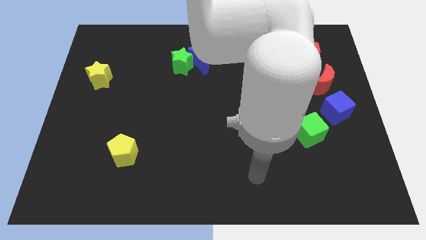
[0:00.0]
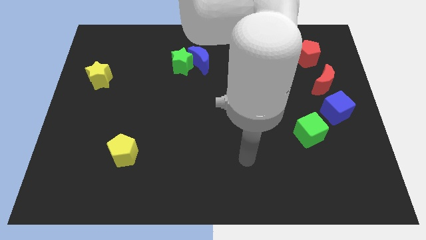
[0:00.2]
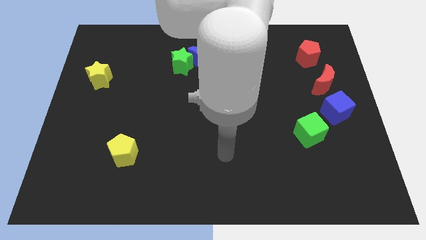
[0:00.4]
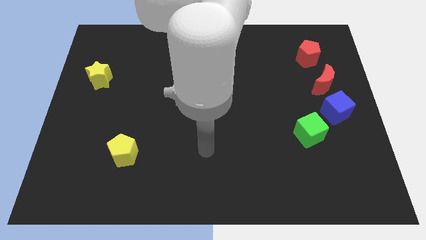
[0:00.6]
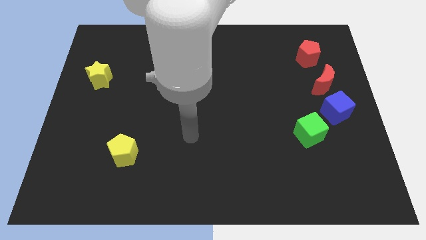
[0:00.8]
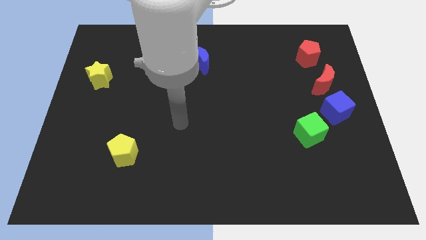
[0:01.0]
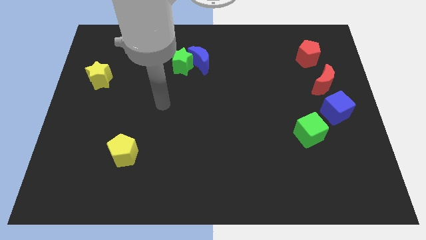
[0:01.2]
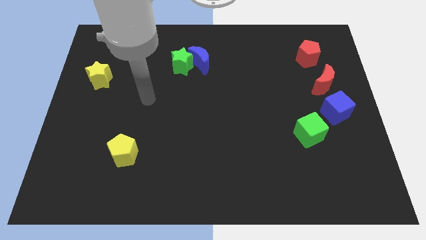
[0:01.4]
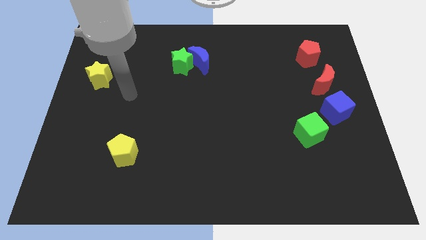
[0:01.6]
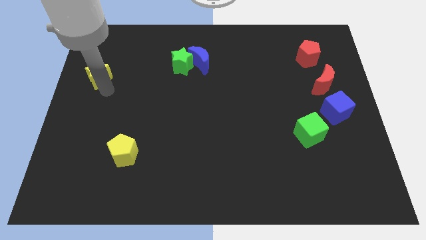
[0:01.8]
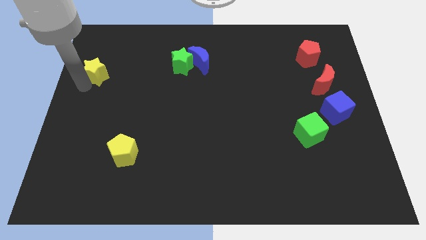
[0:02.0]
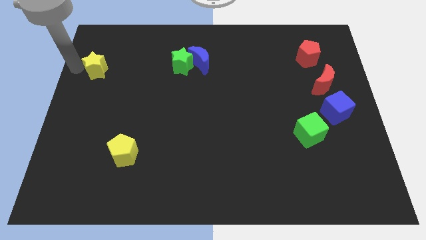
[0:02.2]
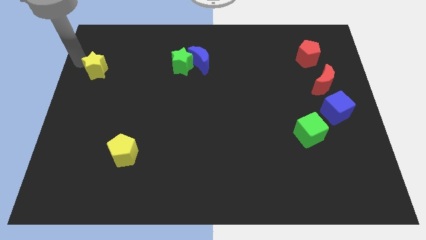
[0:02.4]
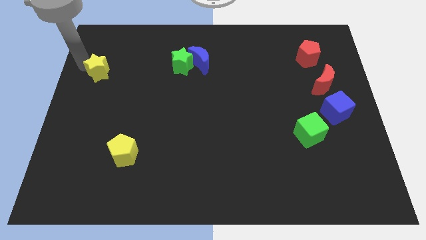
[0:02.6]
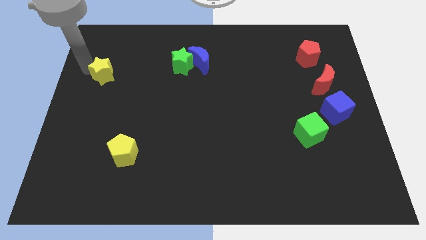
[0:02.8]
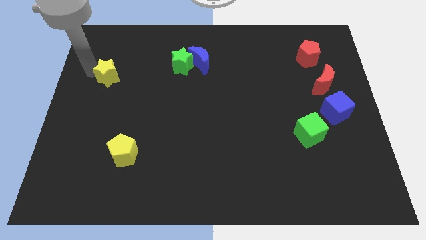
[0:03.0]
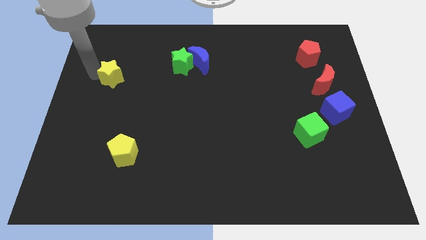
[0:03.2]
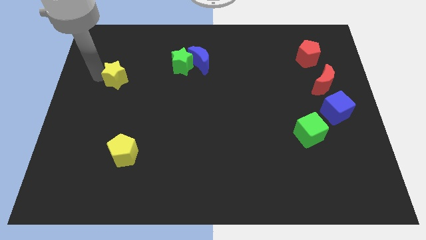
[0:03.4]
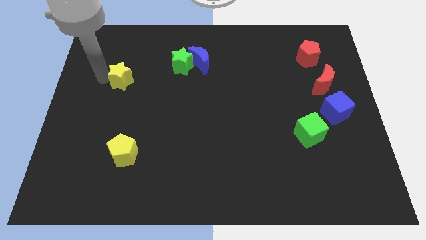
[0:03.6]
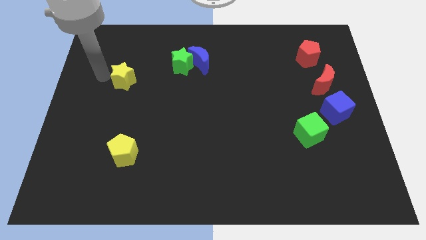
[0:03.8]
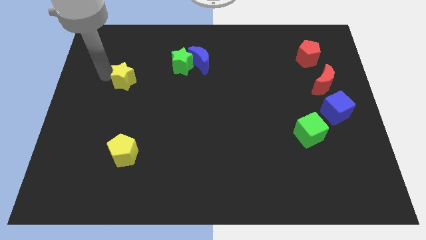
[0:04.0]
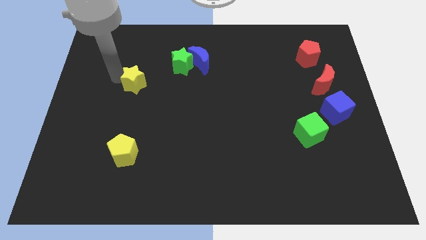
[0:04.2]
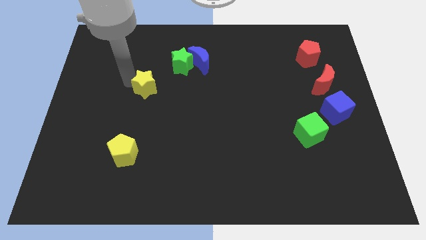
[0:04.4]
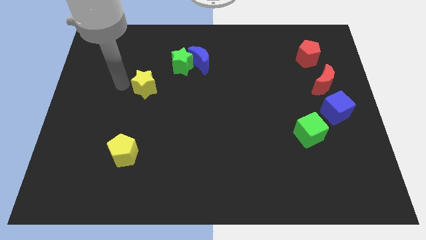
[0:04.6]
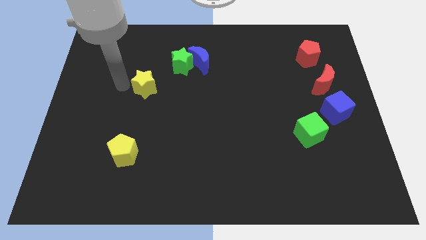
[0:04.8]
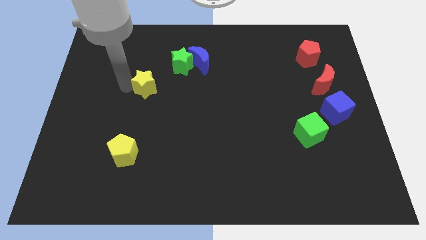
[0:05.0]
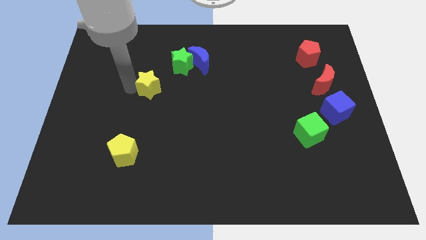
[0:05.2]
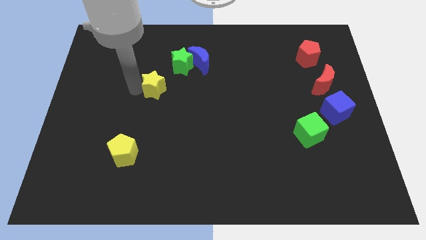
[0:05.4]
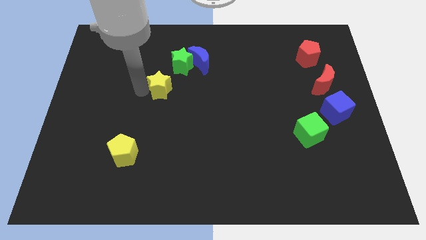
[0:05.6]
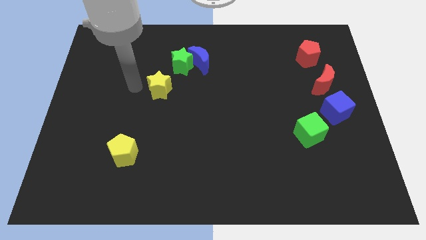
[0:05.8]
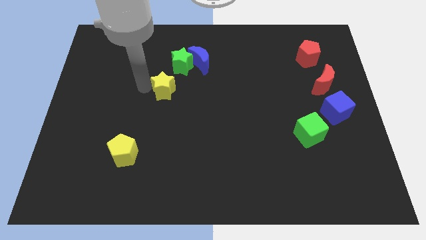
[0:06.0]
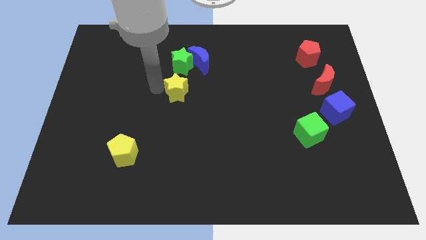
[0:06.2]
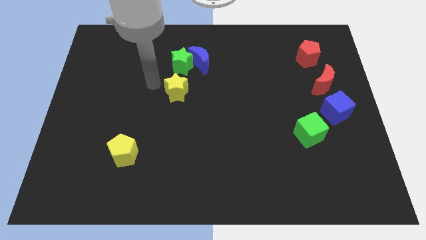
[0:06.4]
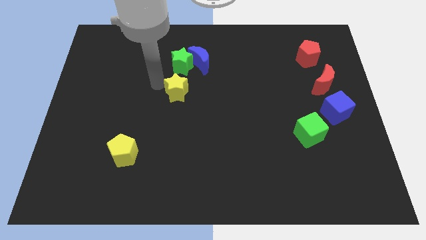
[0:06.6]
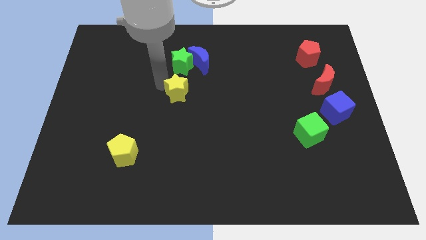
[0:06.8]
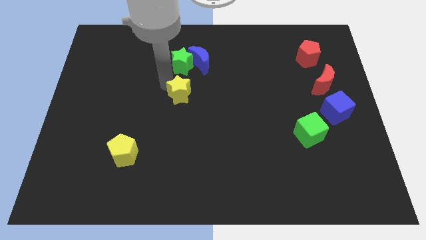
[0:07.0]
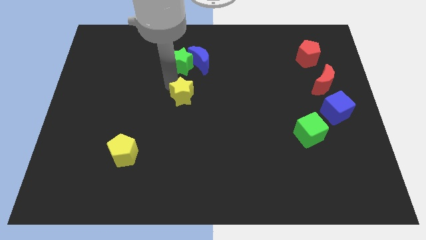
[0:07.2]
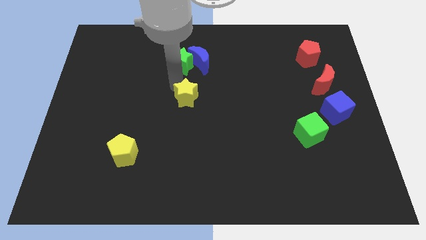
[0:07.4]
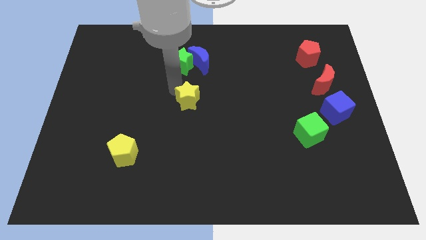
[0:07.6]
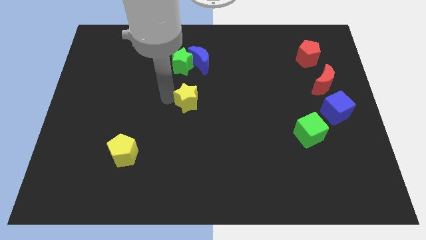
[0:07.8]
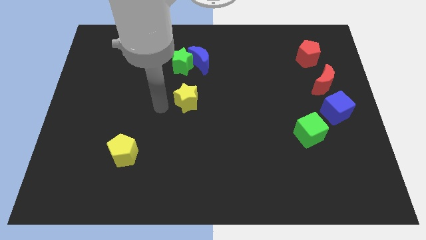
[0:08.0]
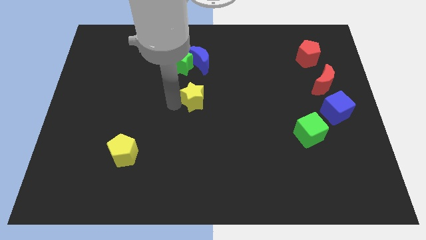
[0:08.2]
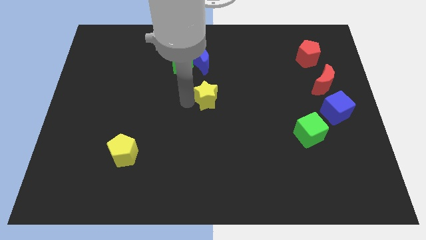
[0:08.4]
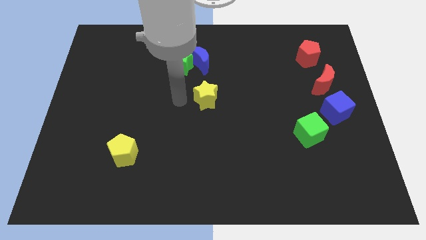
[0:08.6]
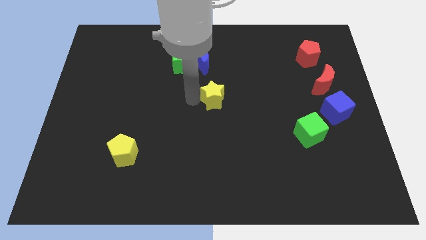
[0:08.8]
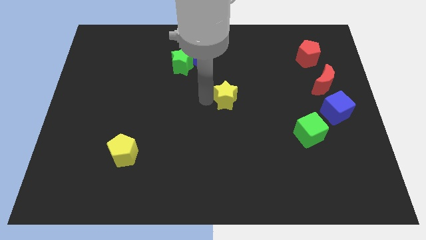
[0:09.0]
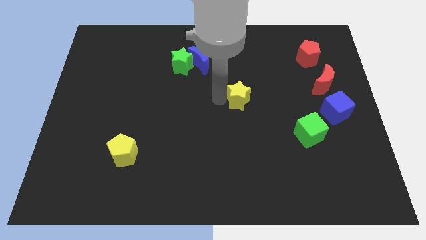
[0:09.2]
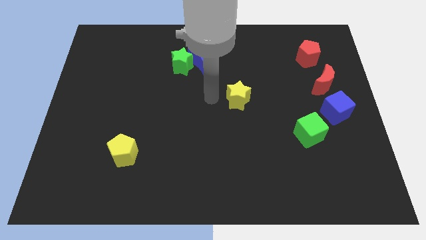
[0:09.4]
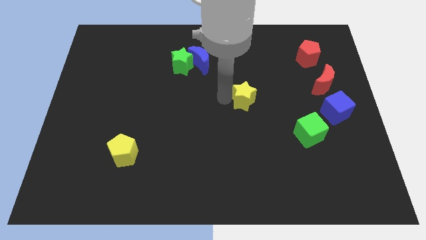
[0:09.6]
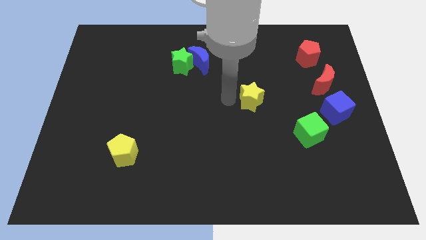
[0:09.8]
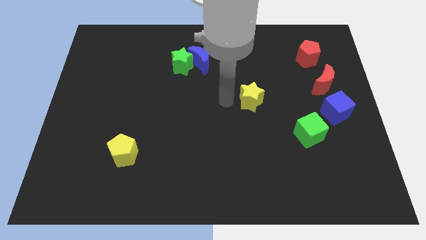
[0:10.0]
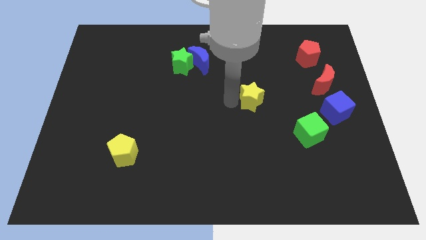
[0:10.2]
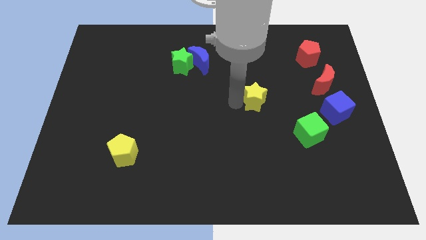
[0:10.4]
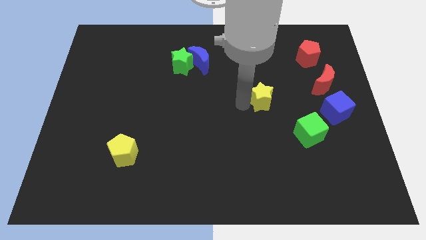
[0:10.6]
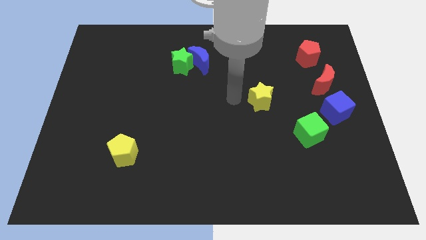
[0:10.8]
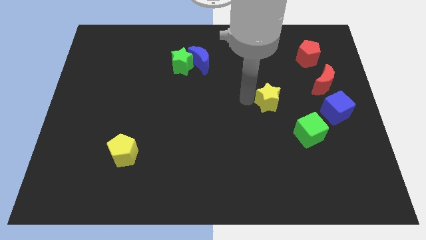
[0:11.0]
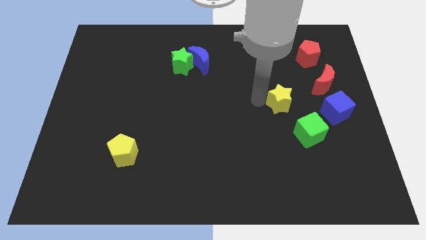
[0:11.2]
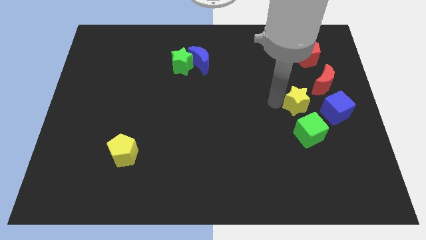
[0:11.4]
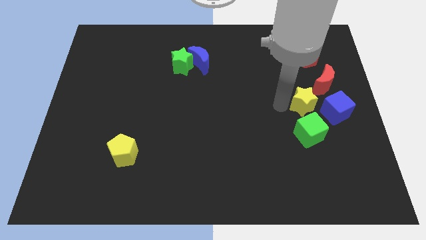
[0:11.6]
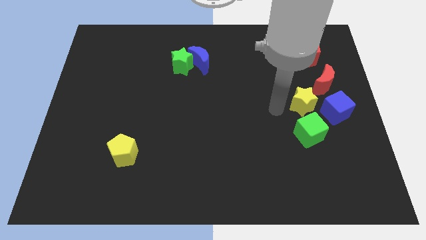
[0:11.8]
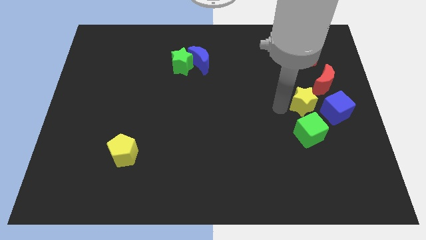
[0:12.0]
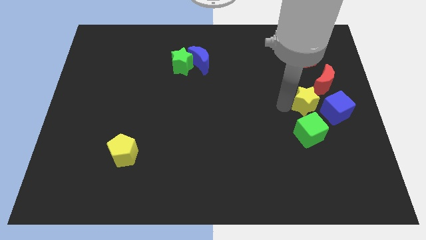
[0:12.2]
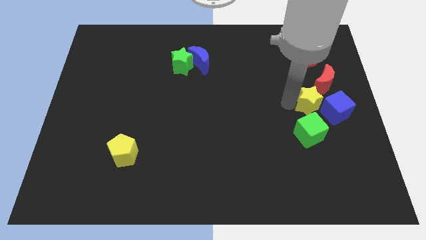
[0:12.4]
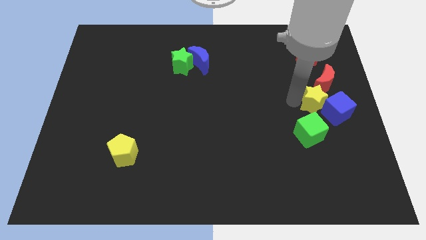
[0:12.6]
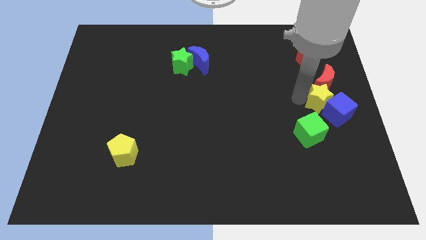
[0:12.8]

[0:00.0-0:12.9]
put the yellow star to the right side of the board

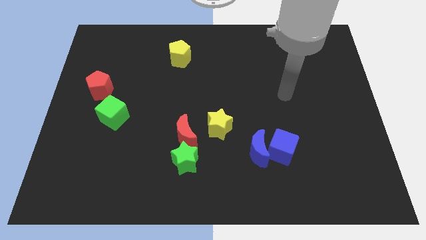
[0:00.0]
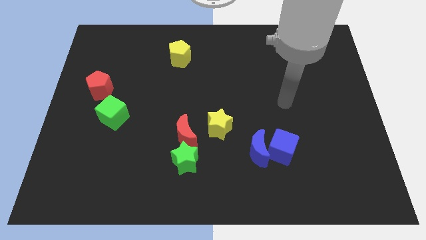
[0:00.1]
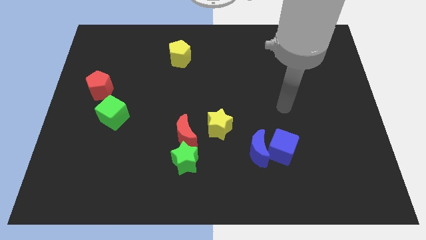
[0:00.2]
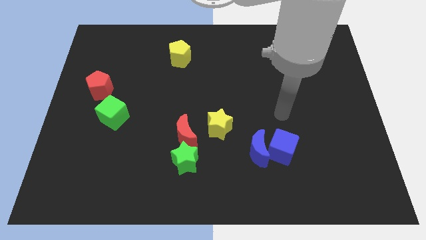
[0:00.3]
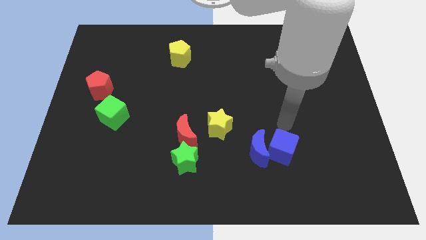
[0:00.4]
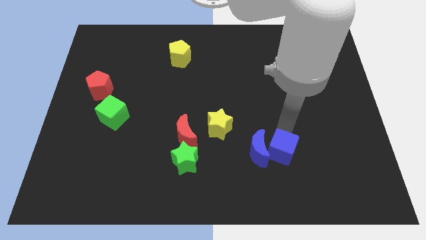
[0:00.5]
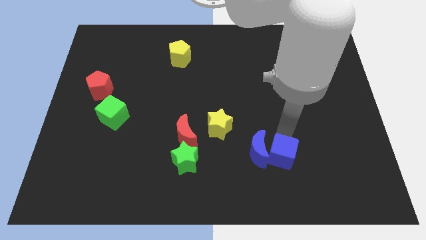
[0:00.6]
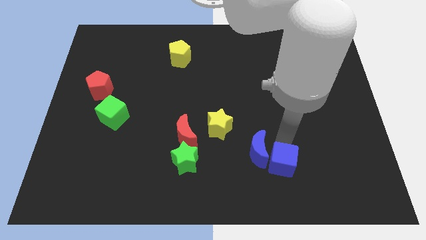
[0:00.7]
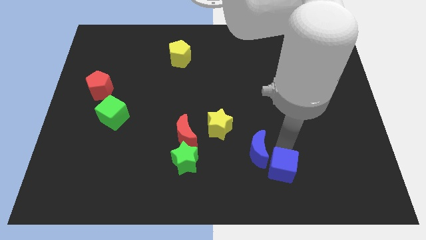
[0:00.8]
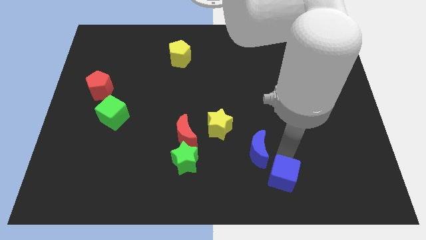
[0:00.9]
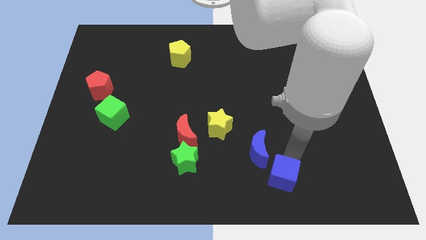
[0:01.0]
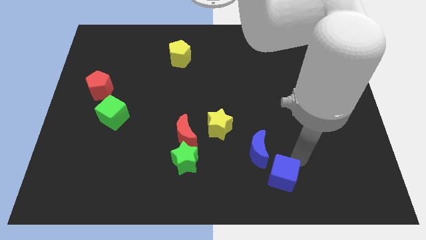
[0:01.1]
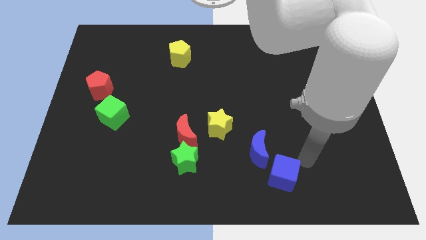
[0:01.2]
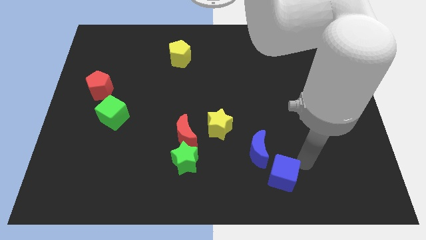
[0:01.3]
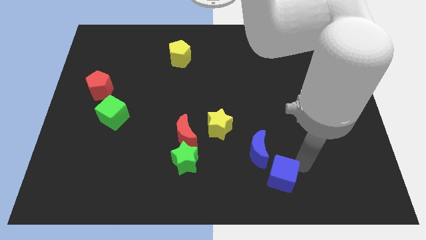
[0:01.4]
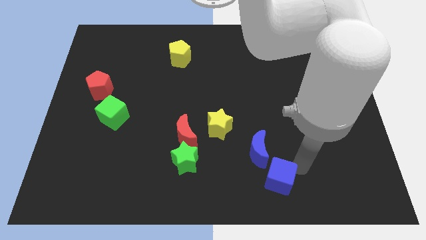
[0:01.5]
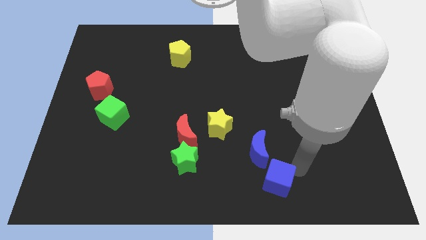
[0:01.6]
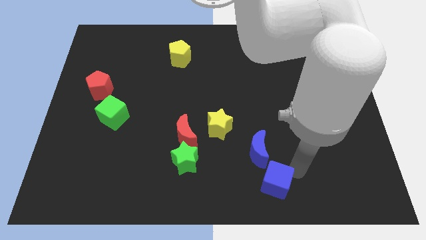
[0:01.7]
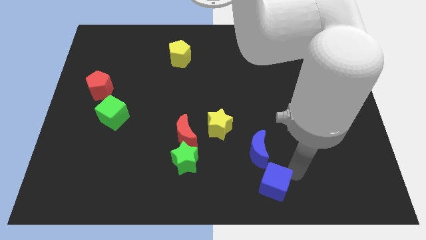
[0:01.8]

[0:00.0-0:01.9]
put the blue cube to the bottom side
